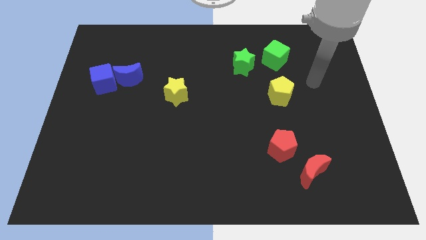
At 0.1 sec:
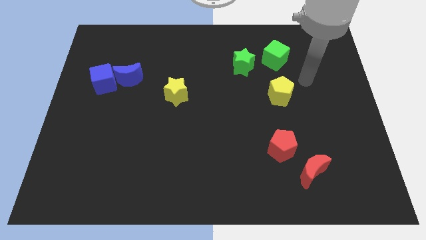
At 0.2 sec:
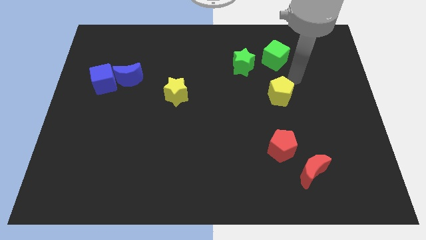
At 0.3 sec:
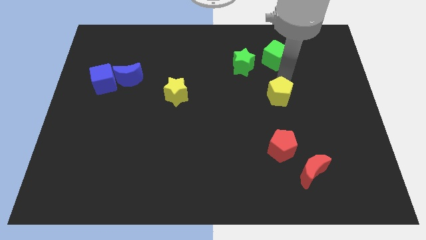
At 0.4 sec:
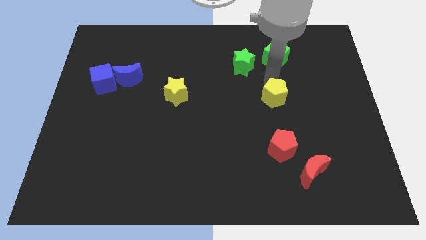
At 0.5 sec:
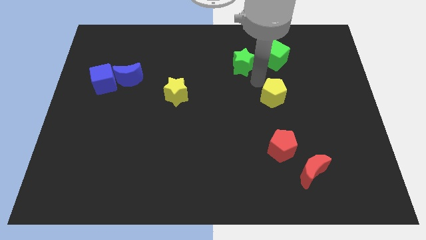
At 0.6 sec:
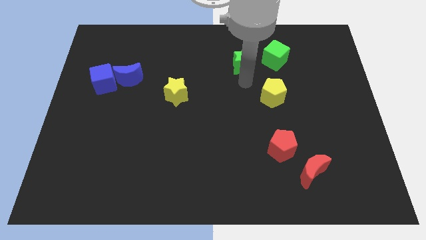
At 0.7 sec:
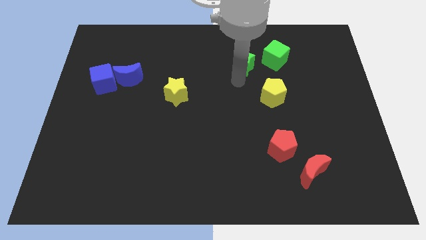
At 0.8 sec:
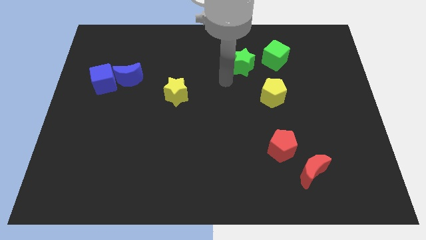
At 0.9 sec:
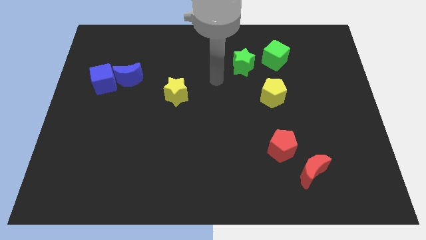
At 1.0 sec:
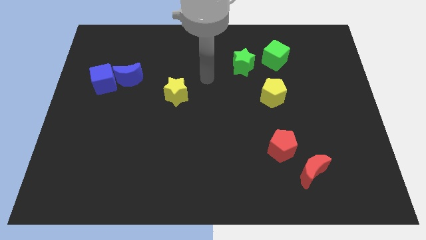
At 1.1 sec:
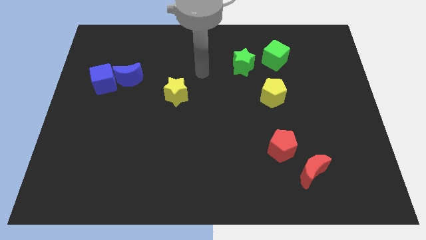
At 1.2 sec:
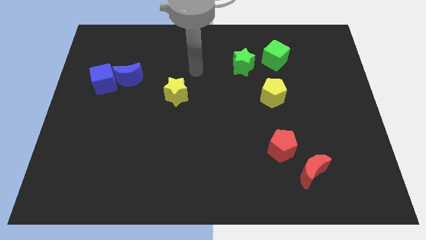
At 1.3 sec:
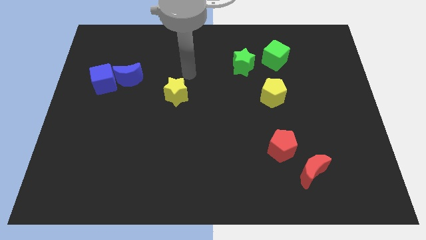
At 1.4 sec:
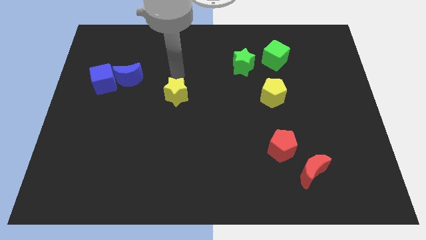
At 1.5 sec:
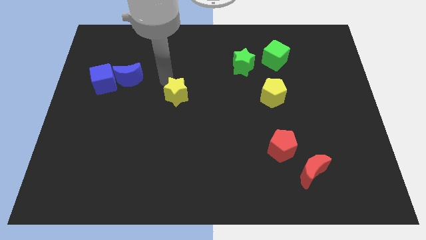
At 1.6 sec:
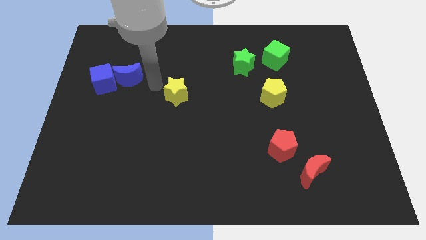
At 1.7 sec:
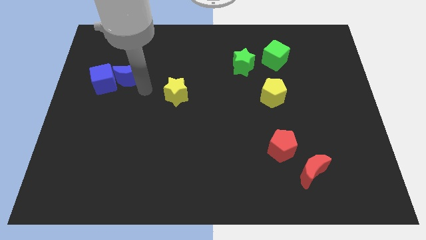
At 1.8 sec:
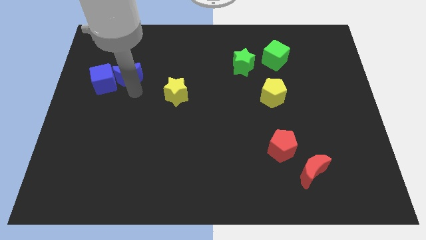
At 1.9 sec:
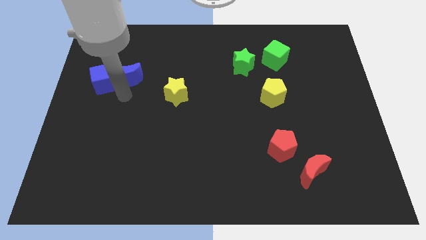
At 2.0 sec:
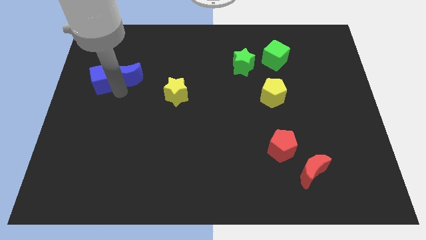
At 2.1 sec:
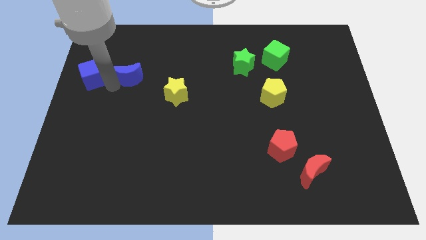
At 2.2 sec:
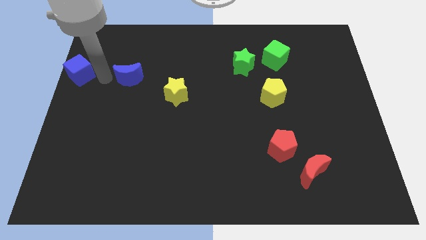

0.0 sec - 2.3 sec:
move the blue moon away from the blue cube

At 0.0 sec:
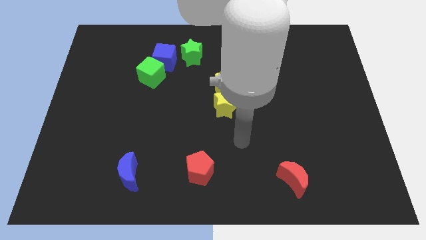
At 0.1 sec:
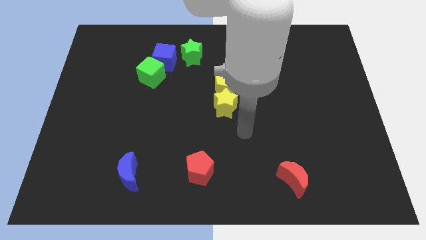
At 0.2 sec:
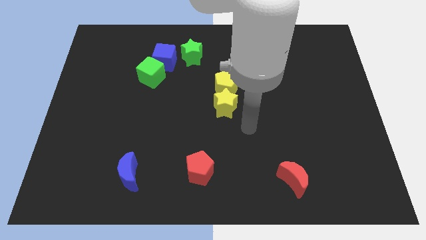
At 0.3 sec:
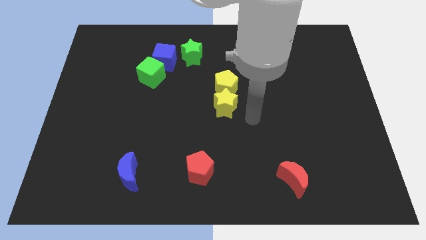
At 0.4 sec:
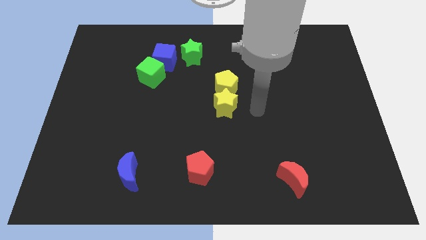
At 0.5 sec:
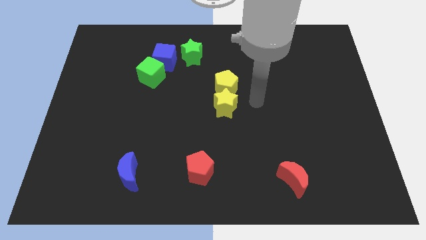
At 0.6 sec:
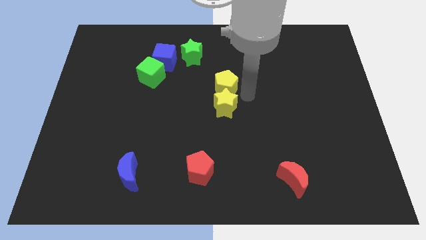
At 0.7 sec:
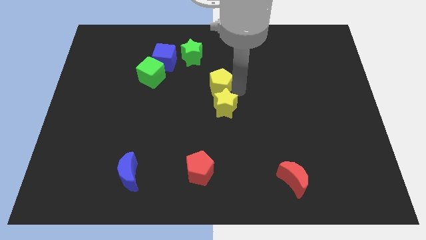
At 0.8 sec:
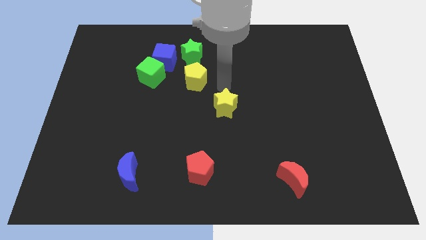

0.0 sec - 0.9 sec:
pull the yellow star apart from the yellow pentagon

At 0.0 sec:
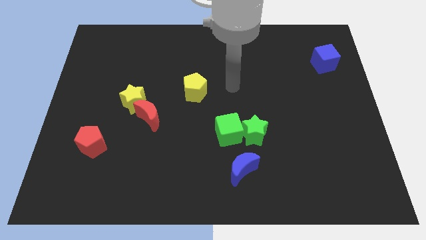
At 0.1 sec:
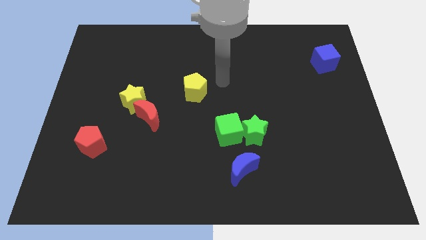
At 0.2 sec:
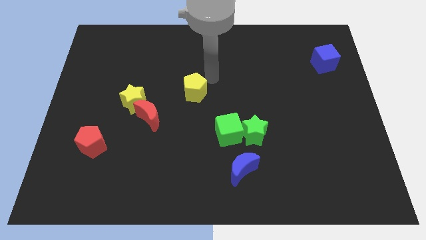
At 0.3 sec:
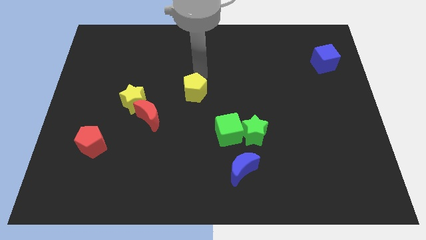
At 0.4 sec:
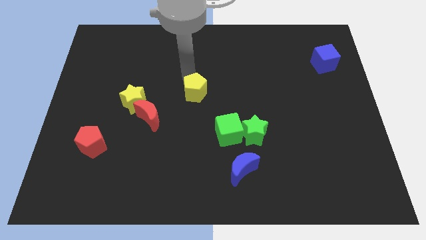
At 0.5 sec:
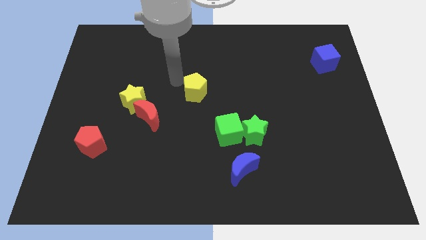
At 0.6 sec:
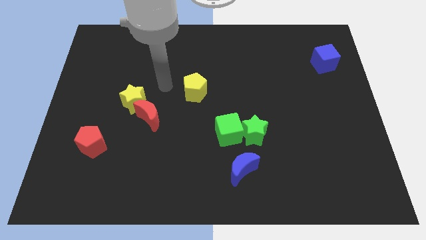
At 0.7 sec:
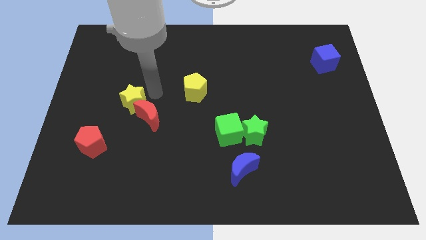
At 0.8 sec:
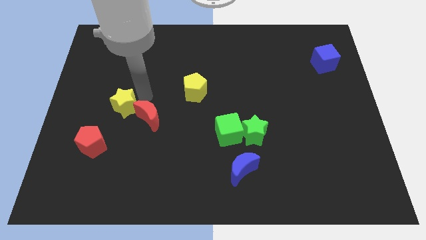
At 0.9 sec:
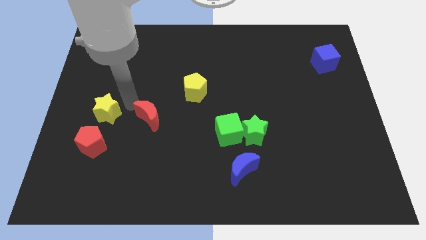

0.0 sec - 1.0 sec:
separate the red moon from the yellow star

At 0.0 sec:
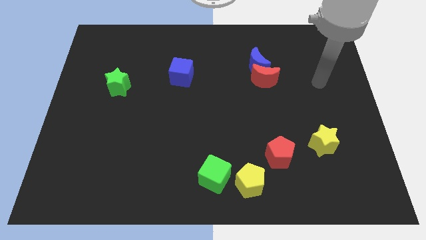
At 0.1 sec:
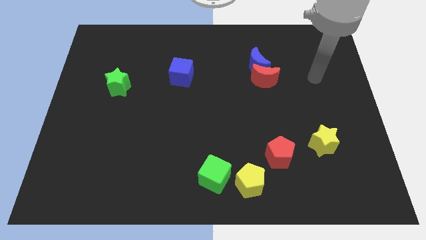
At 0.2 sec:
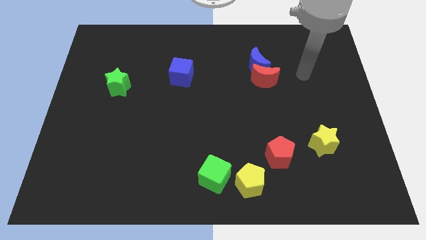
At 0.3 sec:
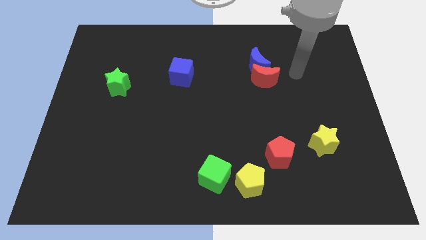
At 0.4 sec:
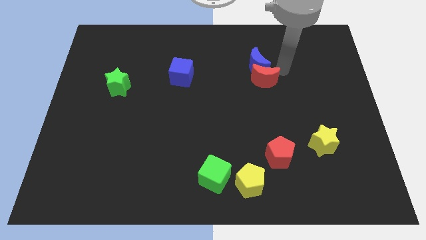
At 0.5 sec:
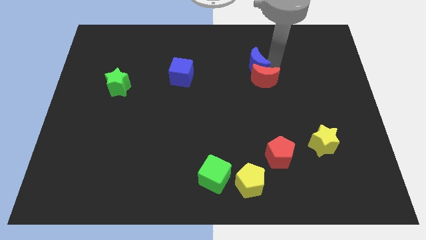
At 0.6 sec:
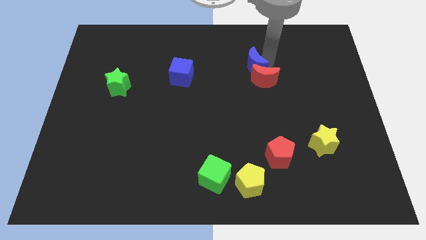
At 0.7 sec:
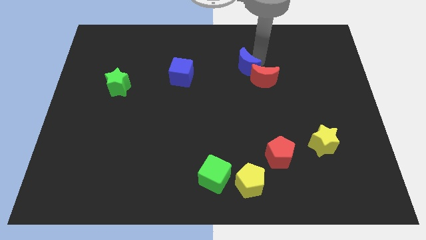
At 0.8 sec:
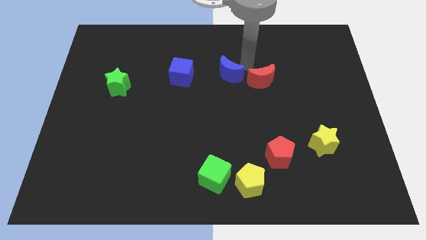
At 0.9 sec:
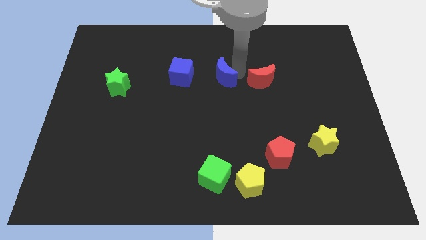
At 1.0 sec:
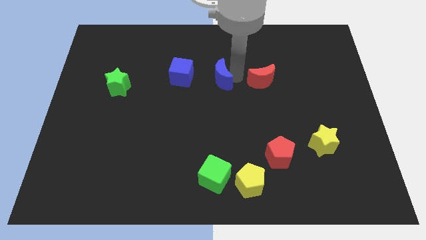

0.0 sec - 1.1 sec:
move the red moon away from the blue moon

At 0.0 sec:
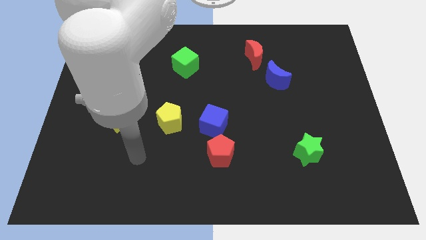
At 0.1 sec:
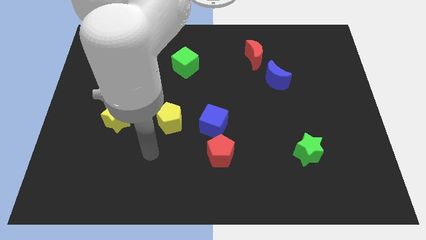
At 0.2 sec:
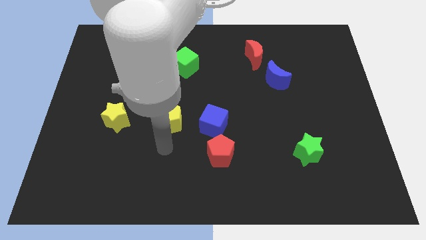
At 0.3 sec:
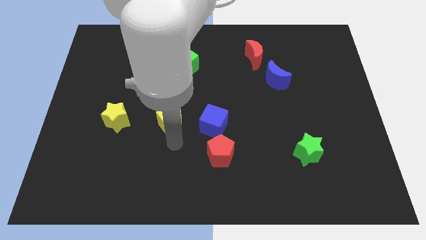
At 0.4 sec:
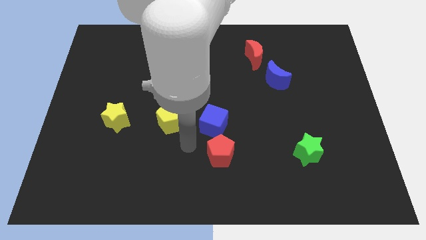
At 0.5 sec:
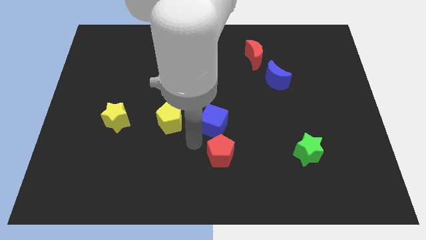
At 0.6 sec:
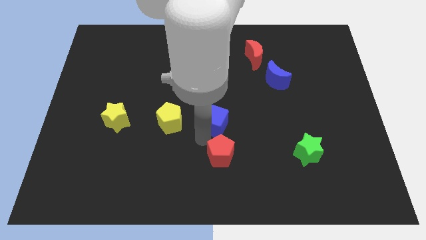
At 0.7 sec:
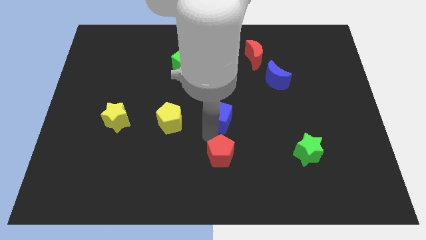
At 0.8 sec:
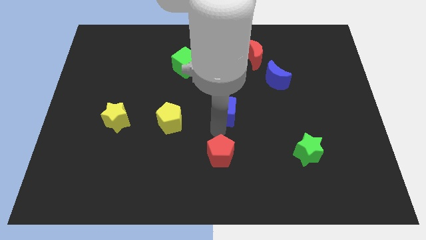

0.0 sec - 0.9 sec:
move the red pentagon away from the blue cube

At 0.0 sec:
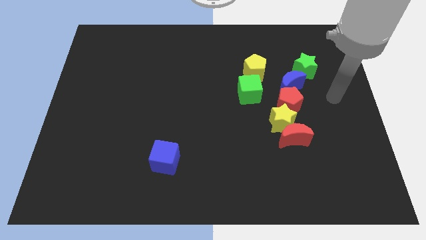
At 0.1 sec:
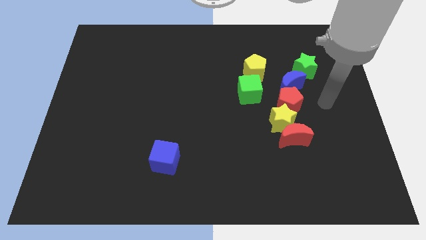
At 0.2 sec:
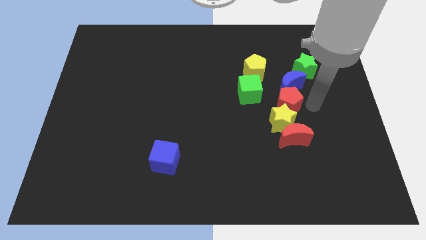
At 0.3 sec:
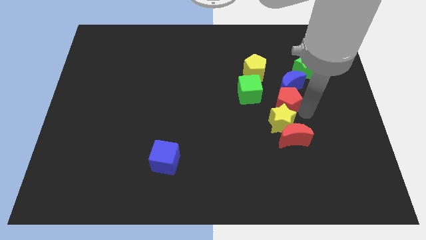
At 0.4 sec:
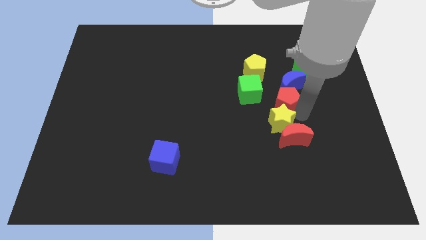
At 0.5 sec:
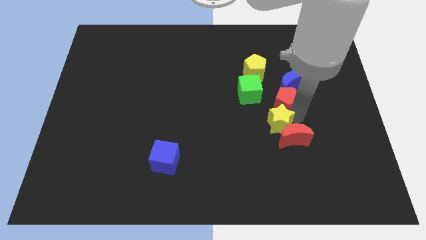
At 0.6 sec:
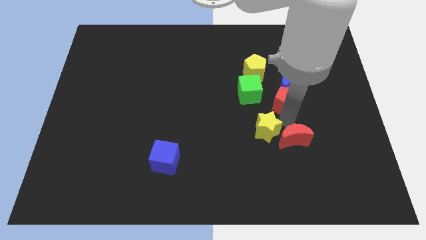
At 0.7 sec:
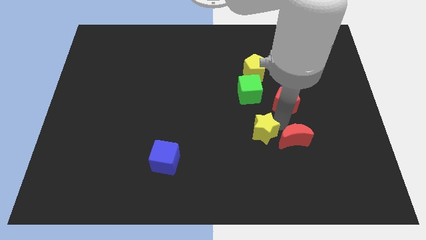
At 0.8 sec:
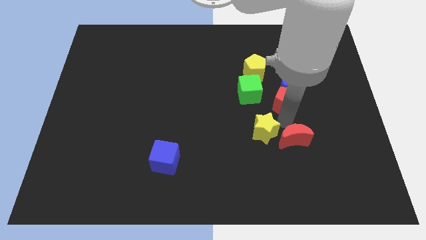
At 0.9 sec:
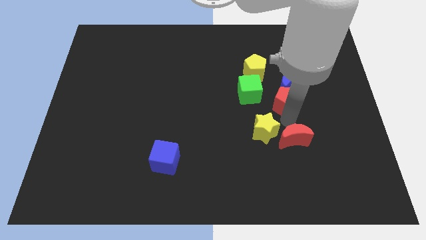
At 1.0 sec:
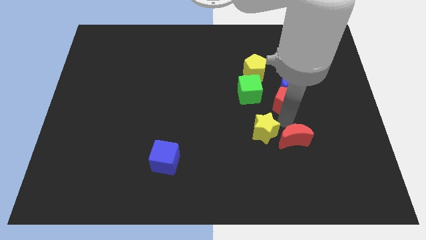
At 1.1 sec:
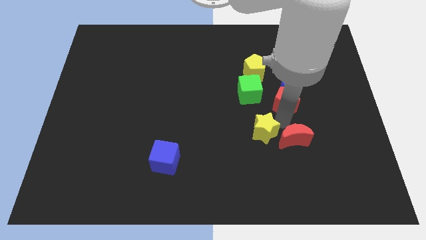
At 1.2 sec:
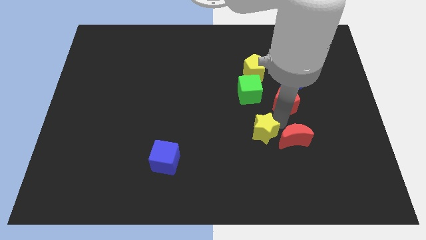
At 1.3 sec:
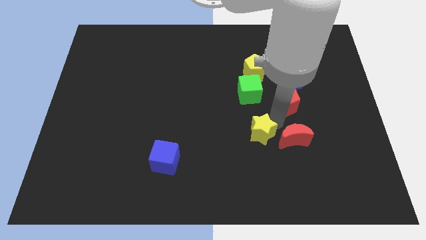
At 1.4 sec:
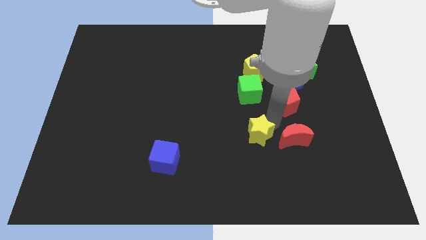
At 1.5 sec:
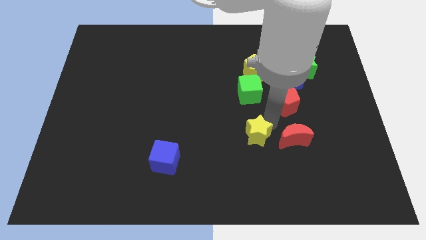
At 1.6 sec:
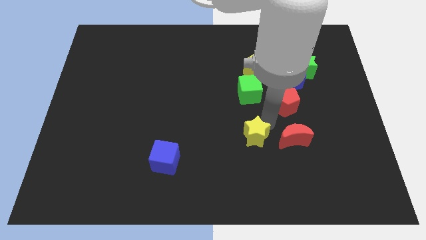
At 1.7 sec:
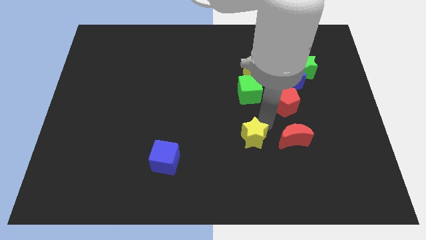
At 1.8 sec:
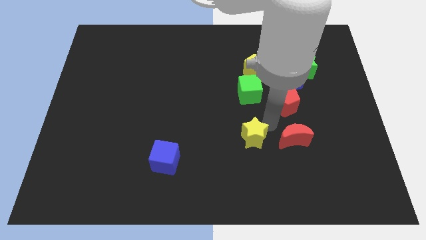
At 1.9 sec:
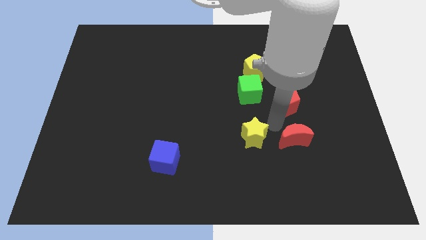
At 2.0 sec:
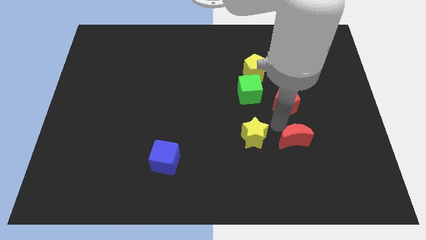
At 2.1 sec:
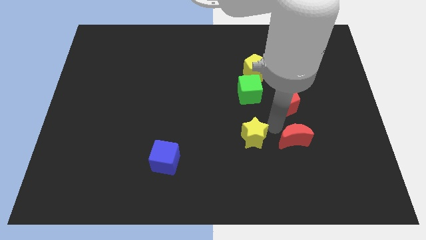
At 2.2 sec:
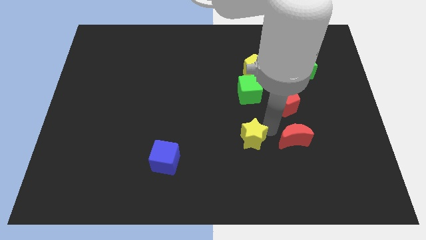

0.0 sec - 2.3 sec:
move the yellow star away from the red moon and red pentagon

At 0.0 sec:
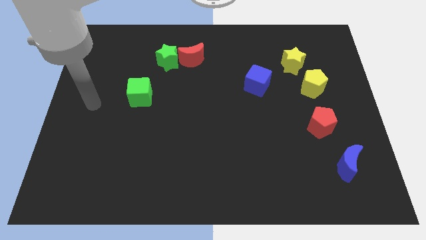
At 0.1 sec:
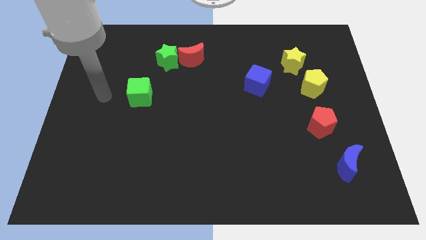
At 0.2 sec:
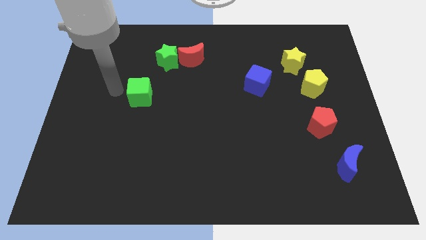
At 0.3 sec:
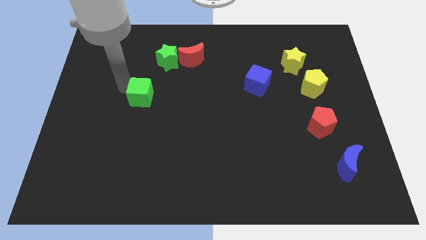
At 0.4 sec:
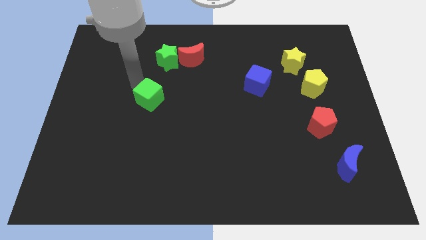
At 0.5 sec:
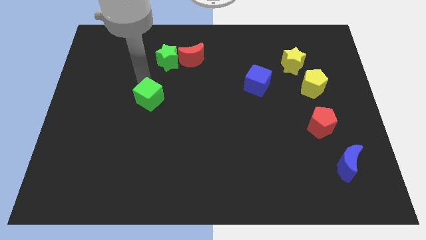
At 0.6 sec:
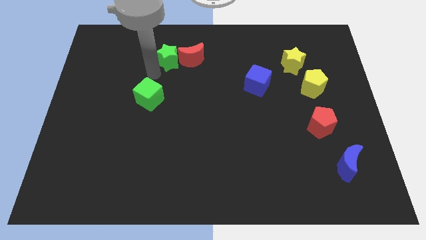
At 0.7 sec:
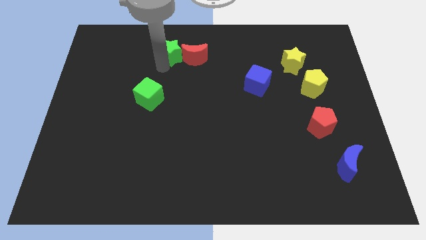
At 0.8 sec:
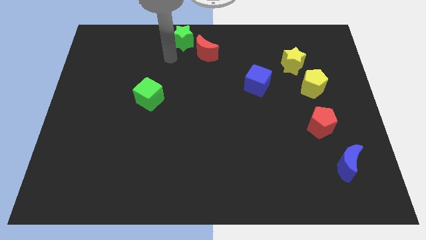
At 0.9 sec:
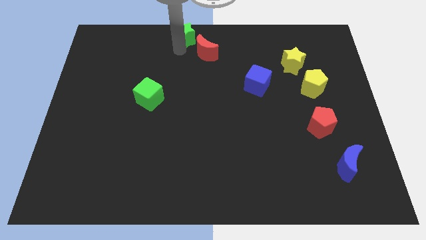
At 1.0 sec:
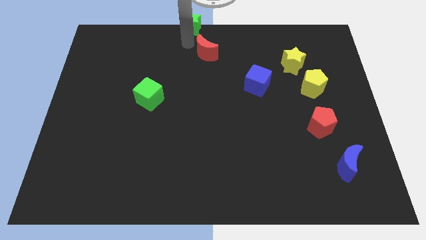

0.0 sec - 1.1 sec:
pull the red moon apart from the green star
